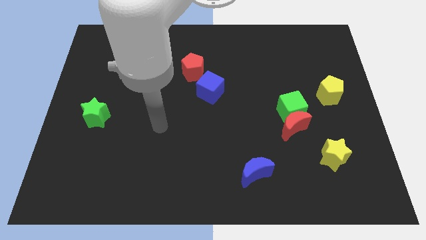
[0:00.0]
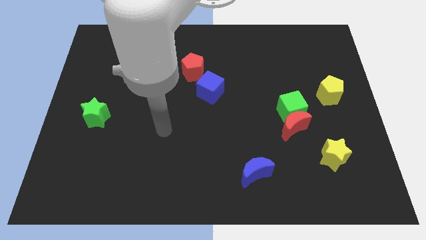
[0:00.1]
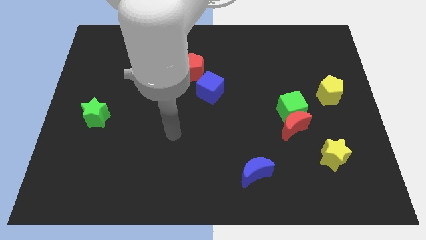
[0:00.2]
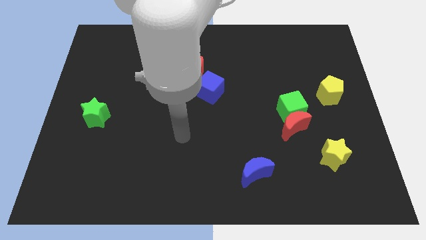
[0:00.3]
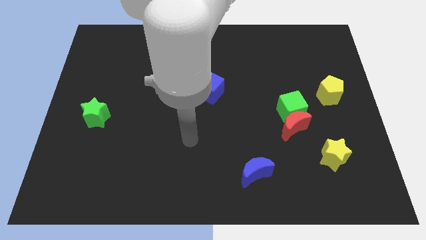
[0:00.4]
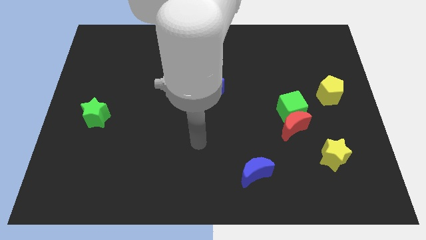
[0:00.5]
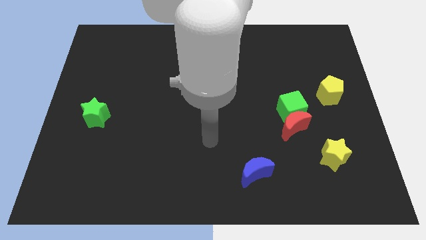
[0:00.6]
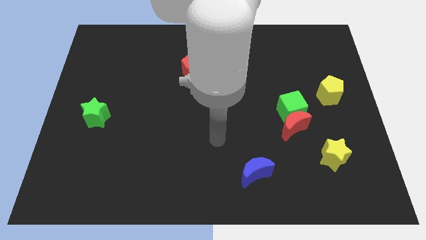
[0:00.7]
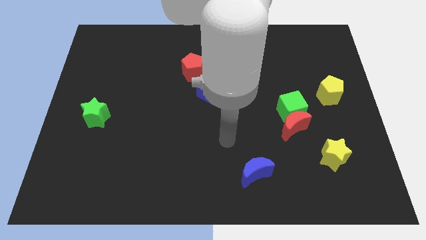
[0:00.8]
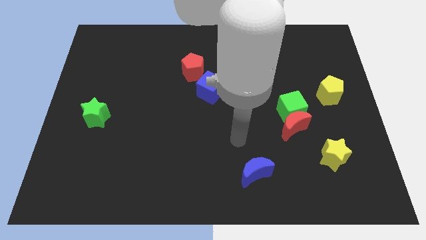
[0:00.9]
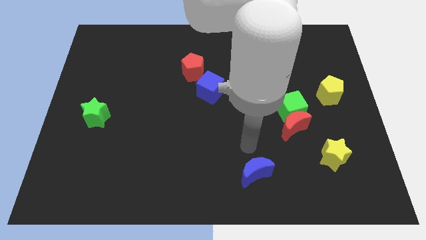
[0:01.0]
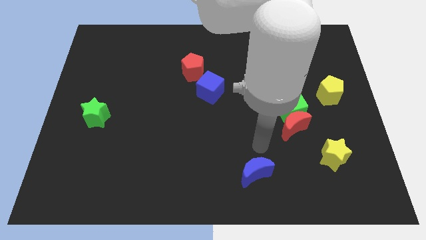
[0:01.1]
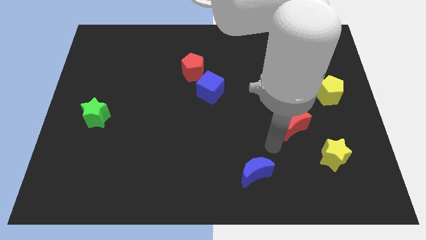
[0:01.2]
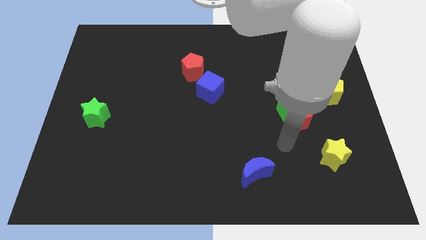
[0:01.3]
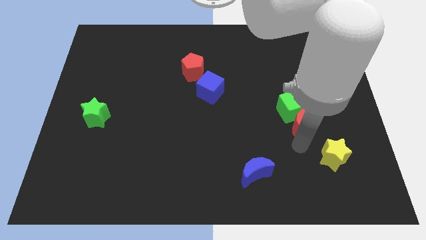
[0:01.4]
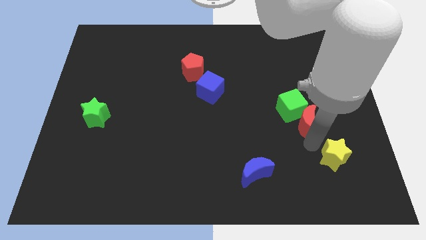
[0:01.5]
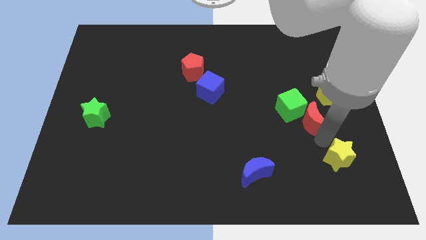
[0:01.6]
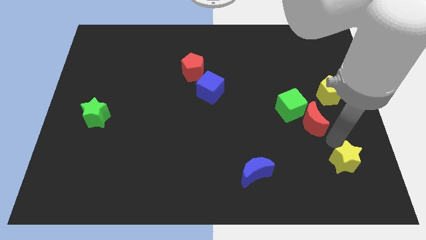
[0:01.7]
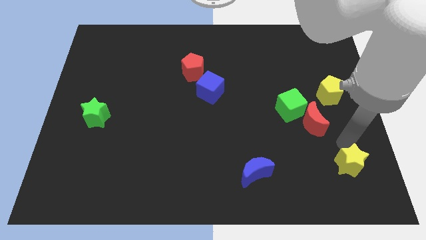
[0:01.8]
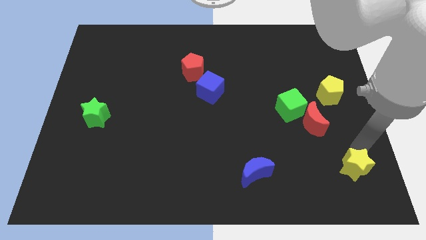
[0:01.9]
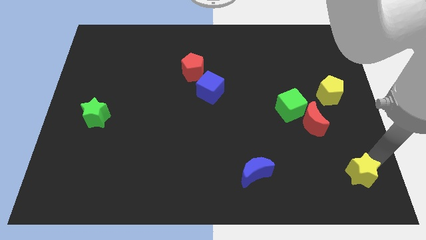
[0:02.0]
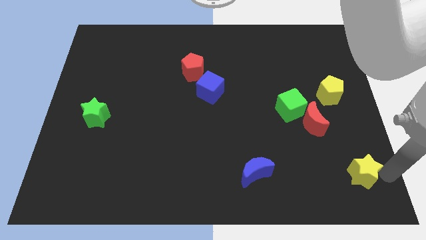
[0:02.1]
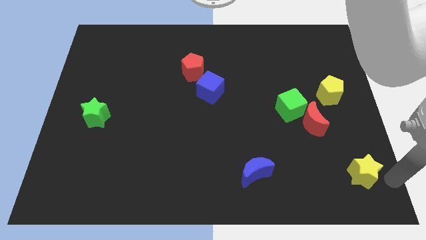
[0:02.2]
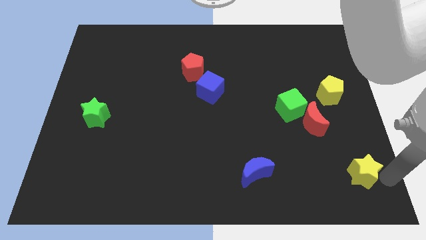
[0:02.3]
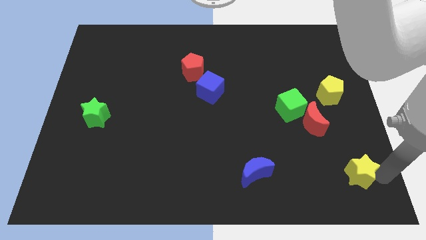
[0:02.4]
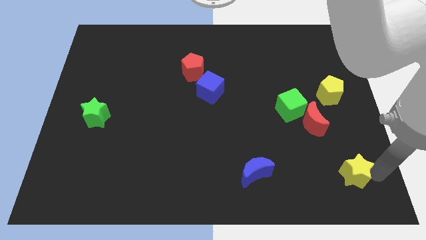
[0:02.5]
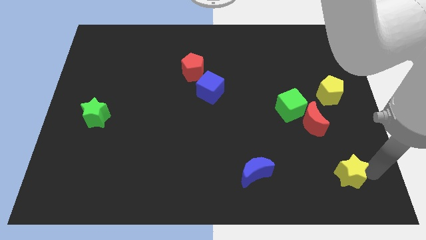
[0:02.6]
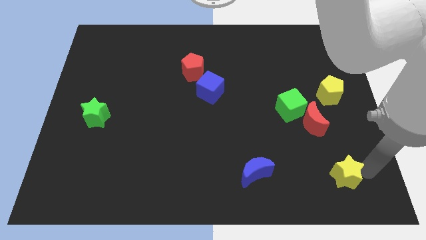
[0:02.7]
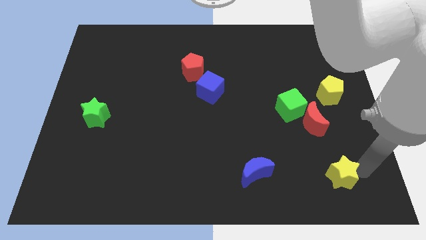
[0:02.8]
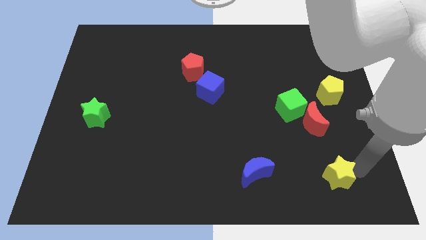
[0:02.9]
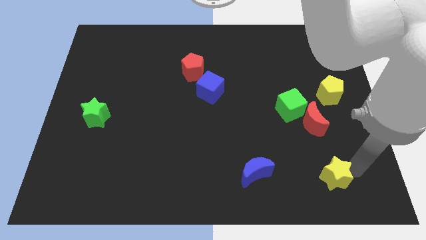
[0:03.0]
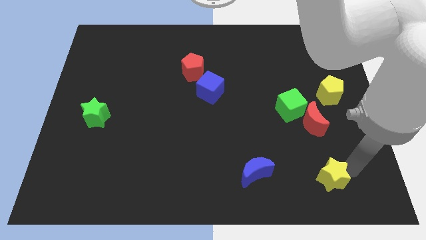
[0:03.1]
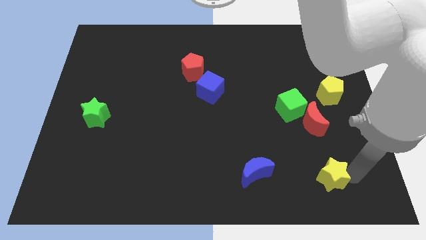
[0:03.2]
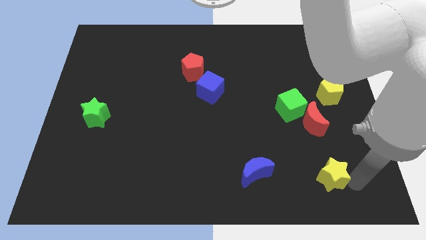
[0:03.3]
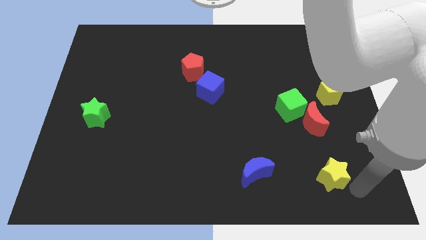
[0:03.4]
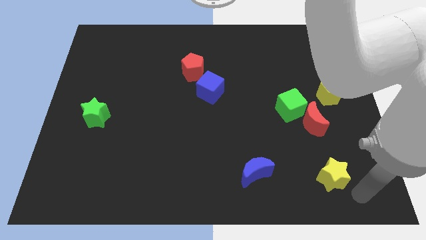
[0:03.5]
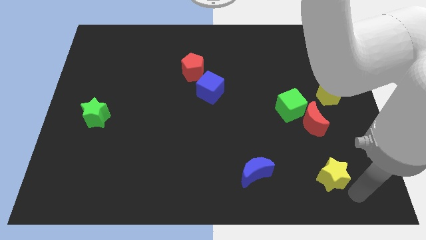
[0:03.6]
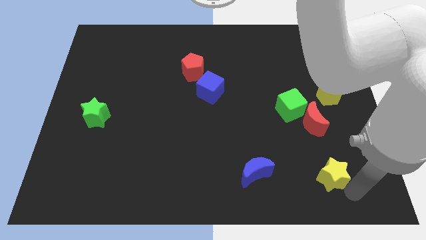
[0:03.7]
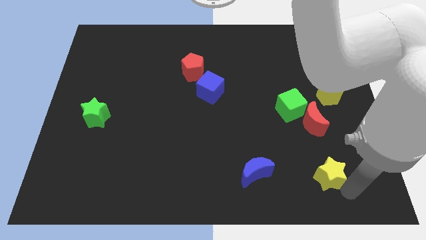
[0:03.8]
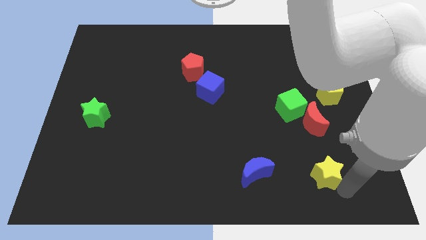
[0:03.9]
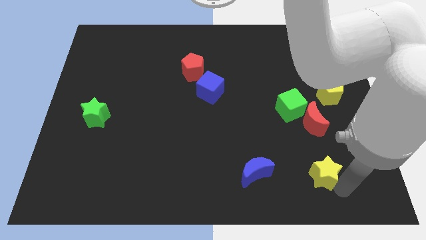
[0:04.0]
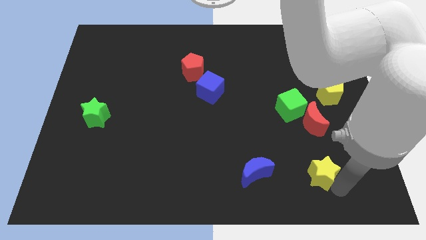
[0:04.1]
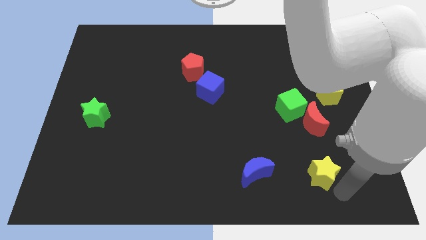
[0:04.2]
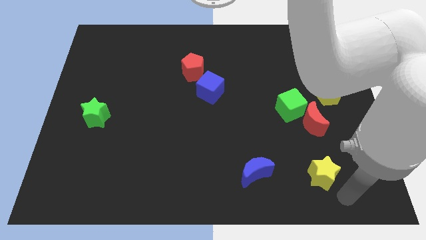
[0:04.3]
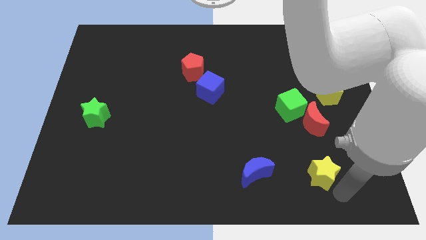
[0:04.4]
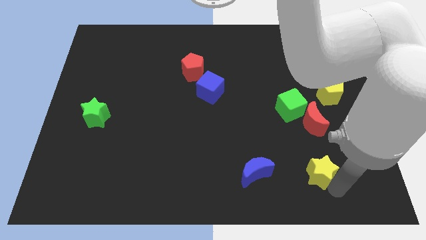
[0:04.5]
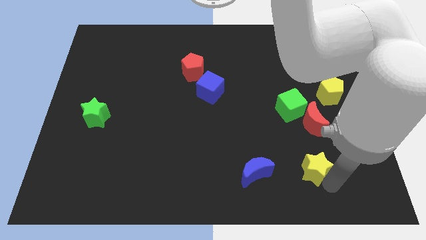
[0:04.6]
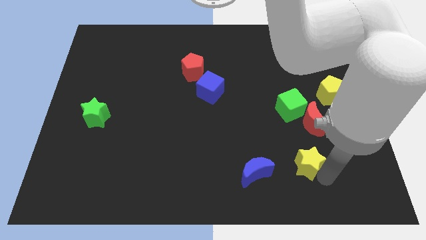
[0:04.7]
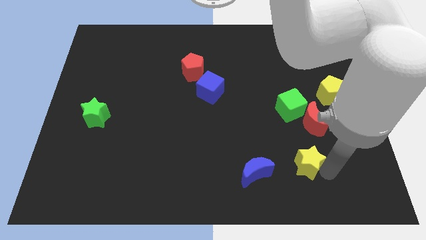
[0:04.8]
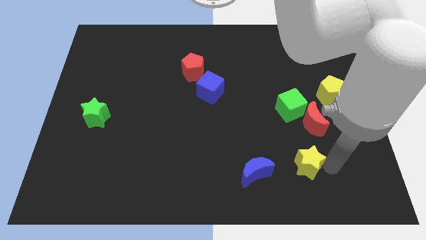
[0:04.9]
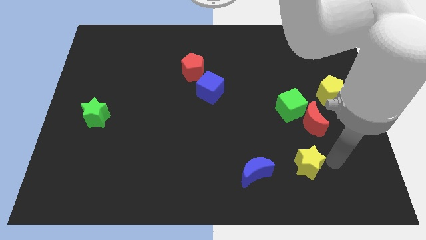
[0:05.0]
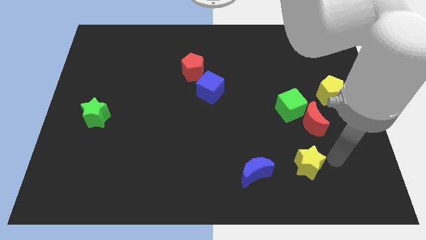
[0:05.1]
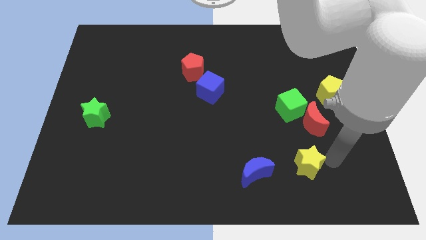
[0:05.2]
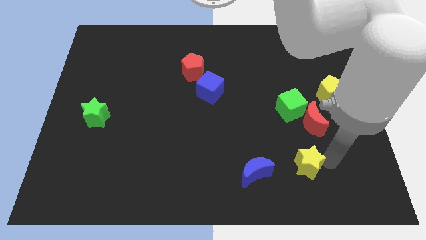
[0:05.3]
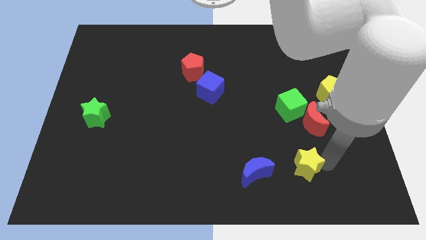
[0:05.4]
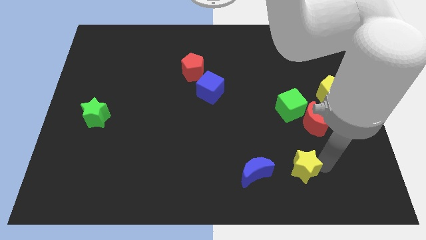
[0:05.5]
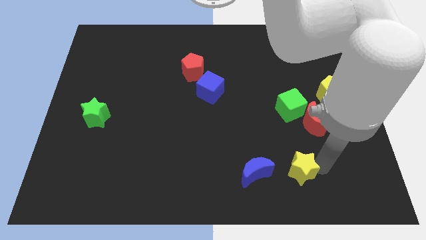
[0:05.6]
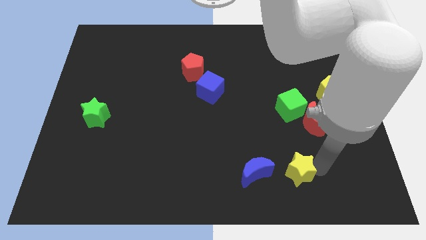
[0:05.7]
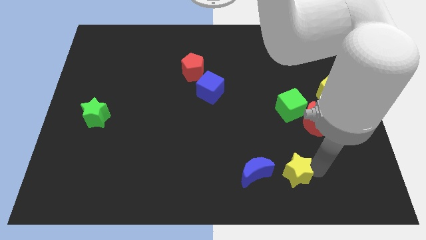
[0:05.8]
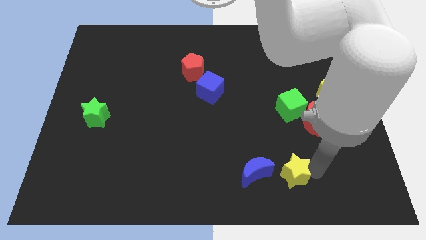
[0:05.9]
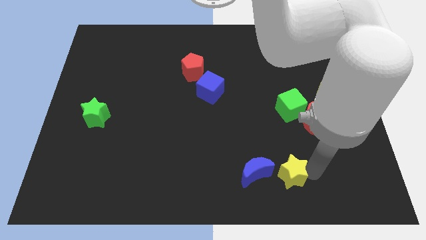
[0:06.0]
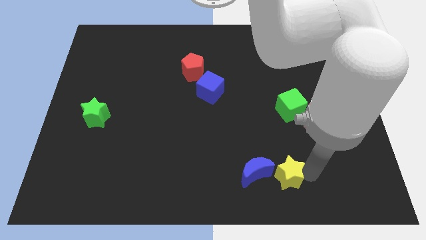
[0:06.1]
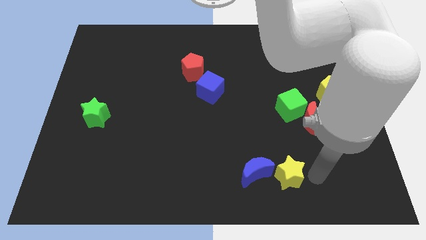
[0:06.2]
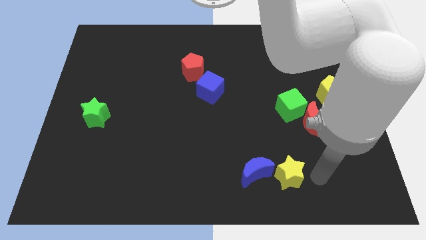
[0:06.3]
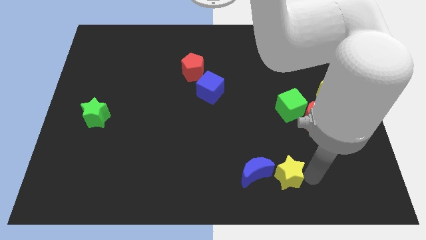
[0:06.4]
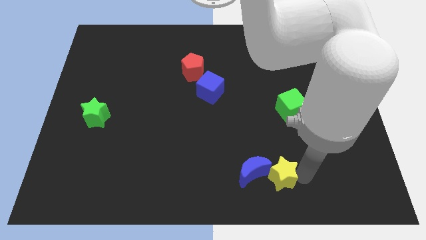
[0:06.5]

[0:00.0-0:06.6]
put the yellow star close to the blue moon
